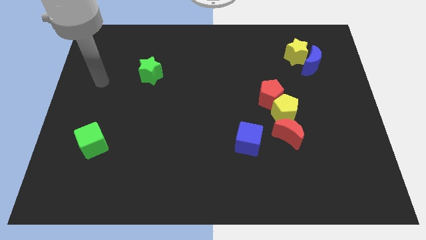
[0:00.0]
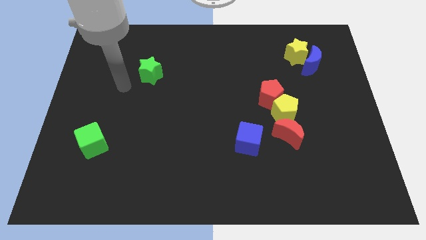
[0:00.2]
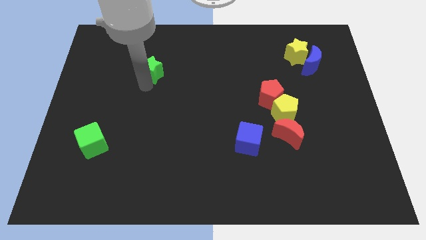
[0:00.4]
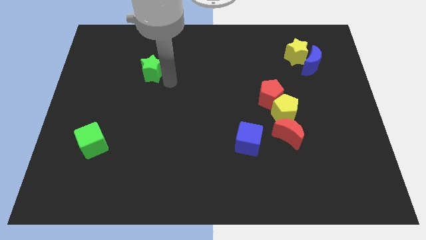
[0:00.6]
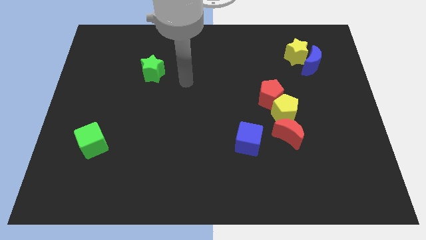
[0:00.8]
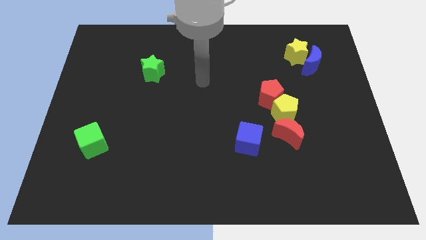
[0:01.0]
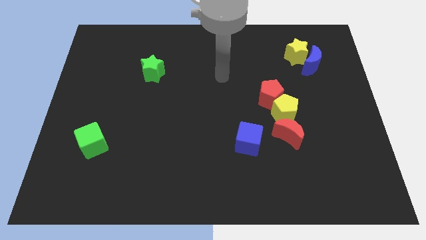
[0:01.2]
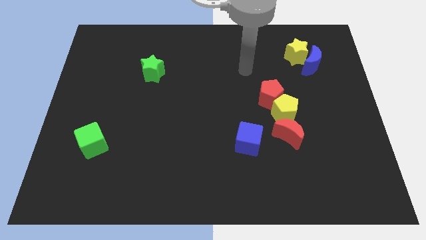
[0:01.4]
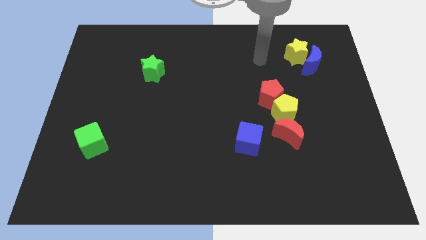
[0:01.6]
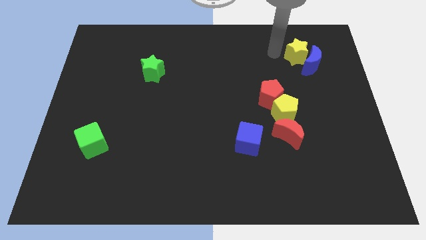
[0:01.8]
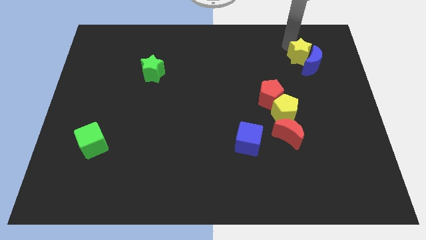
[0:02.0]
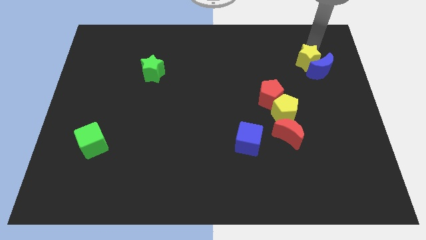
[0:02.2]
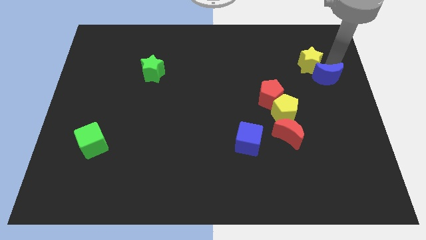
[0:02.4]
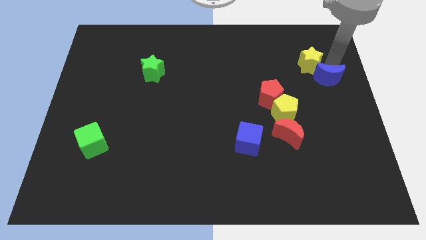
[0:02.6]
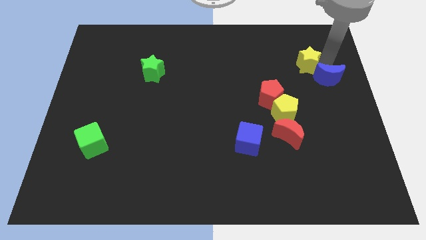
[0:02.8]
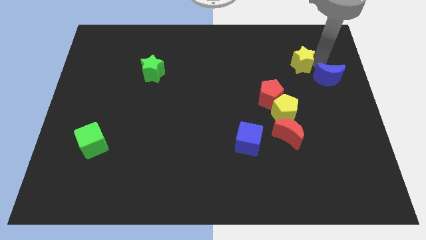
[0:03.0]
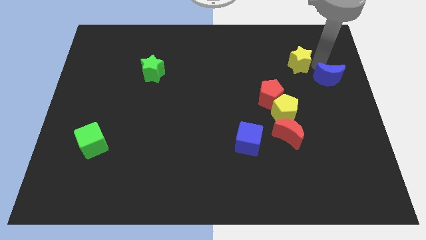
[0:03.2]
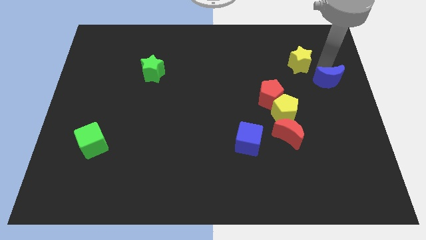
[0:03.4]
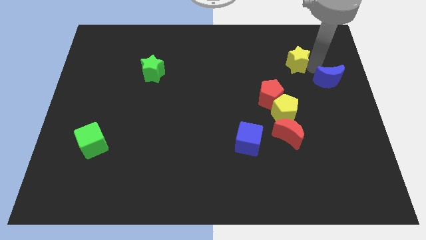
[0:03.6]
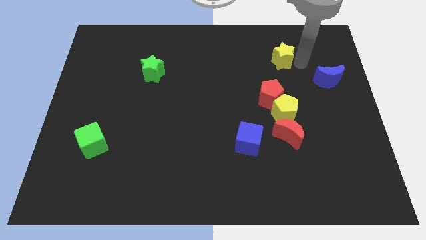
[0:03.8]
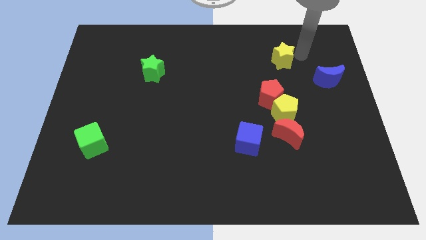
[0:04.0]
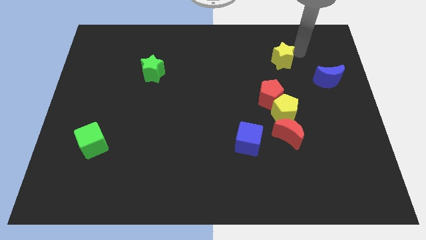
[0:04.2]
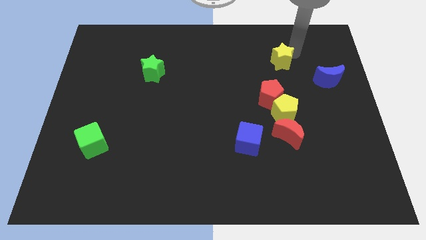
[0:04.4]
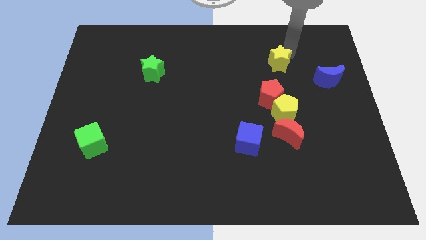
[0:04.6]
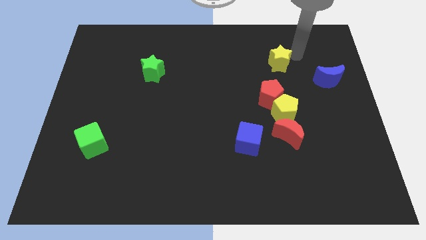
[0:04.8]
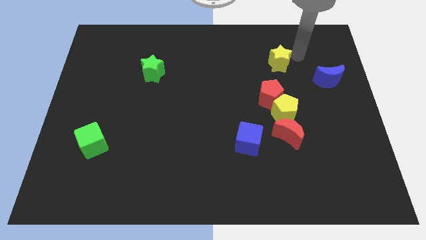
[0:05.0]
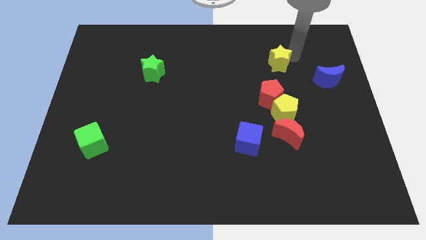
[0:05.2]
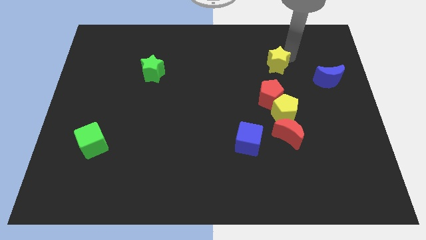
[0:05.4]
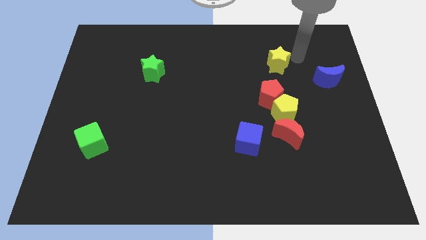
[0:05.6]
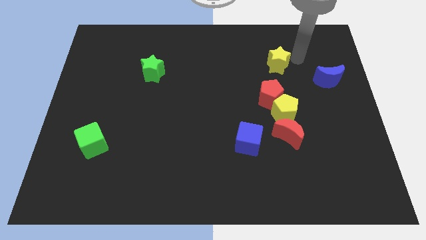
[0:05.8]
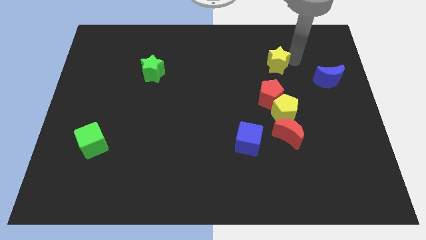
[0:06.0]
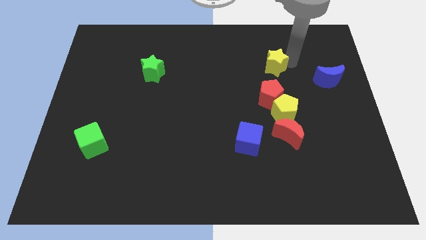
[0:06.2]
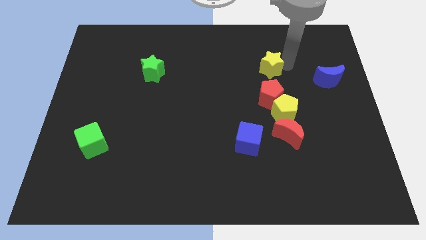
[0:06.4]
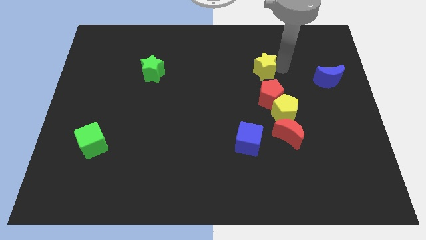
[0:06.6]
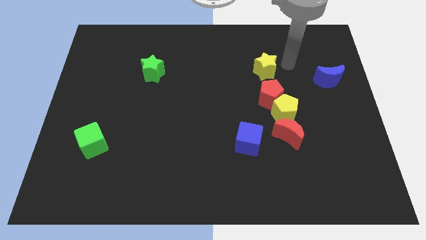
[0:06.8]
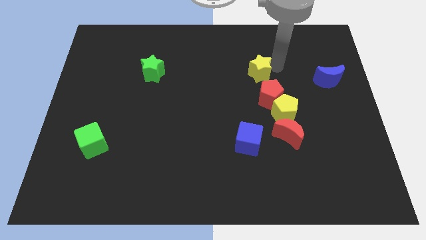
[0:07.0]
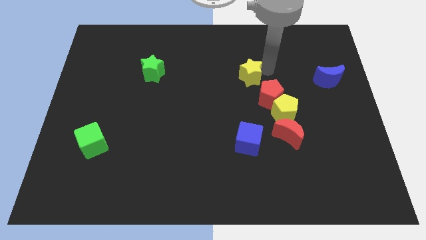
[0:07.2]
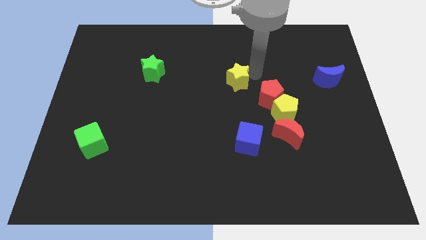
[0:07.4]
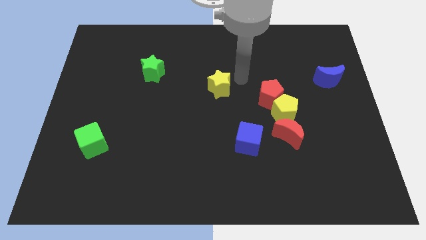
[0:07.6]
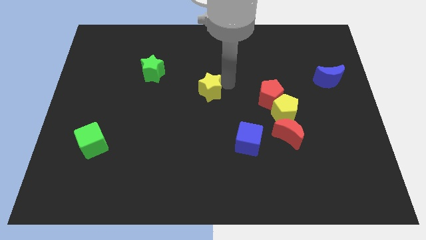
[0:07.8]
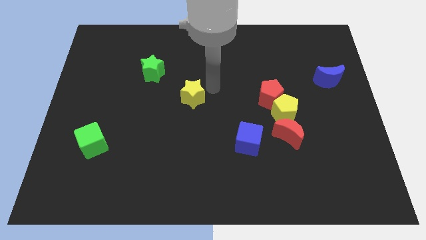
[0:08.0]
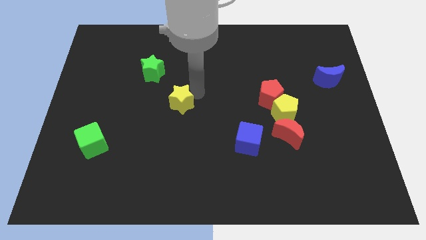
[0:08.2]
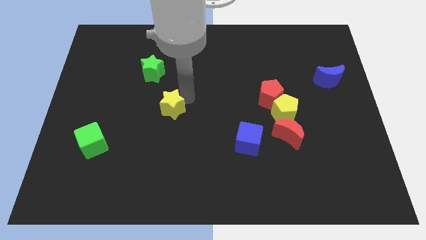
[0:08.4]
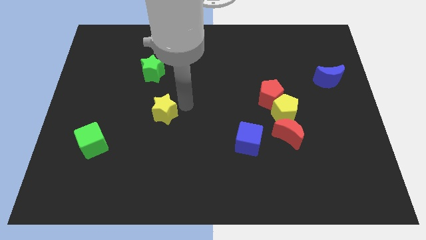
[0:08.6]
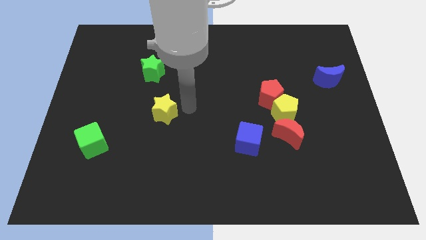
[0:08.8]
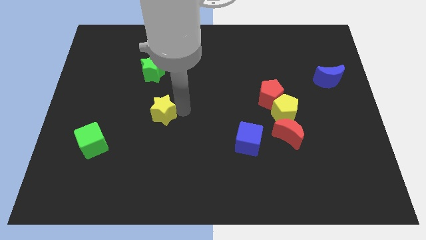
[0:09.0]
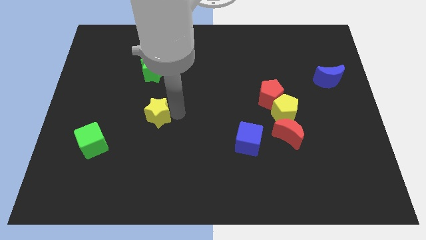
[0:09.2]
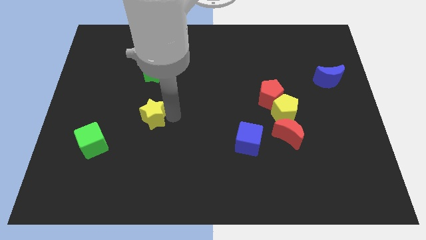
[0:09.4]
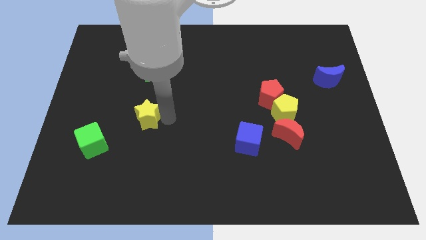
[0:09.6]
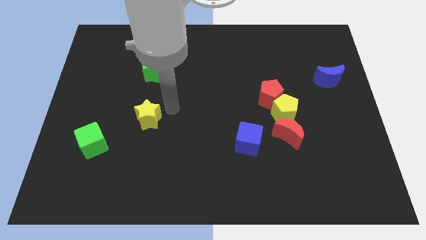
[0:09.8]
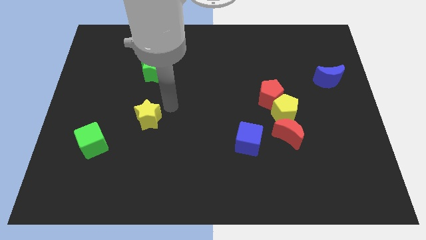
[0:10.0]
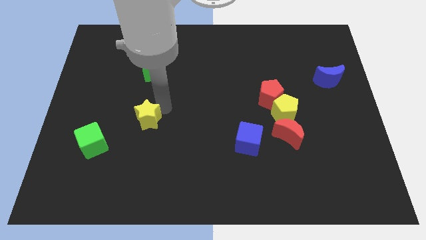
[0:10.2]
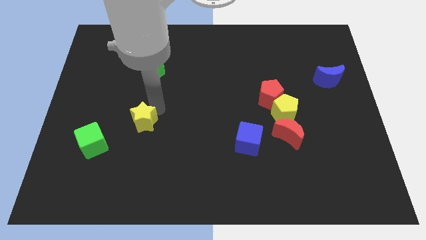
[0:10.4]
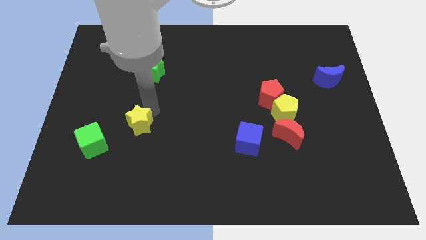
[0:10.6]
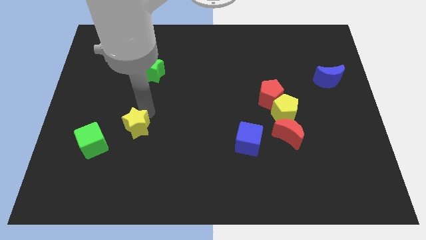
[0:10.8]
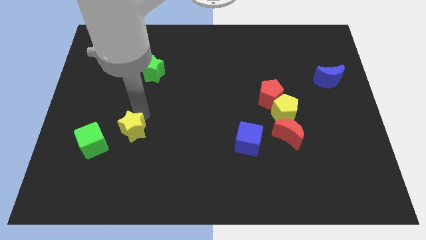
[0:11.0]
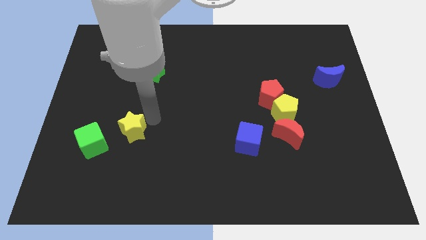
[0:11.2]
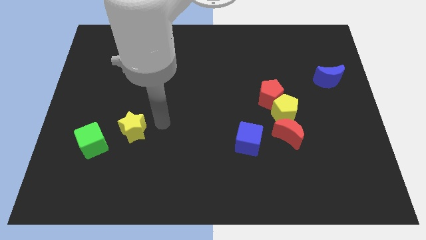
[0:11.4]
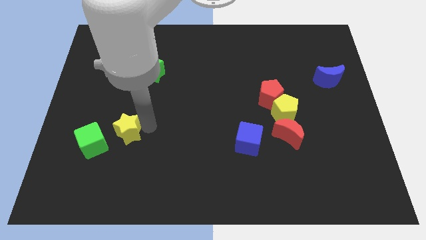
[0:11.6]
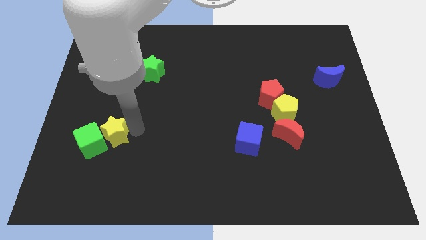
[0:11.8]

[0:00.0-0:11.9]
put the yellow star to the green cube

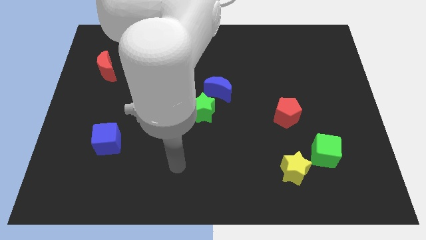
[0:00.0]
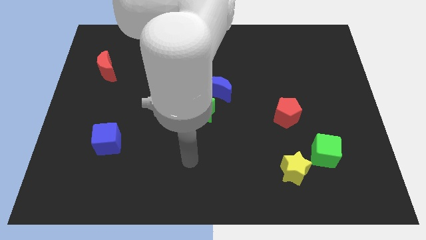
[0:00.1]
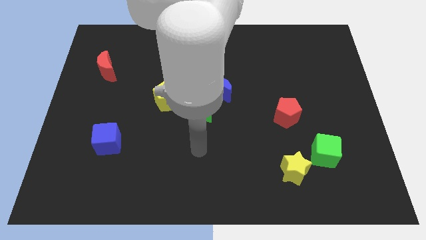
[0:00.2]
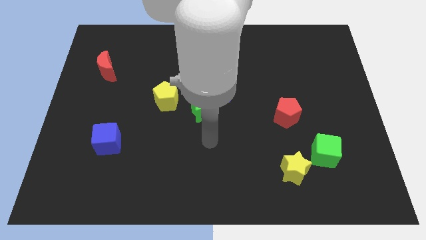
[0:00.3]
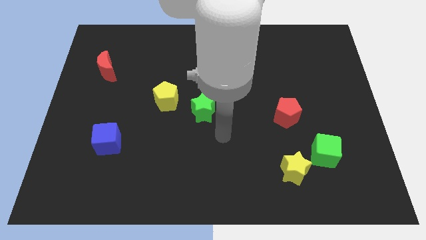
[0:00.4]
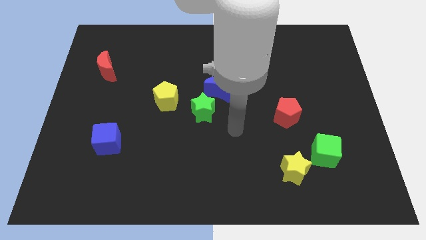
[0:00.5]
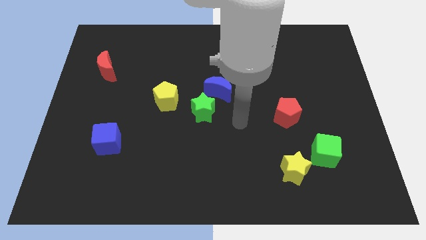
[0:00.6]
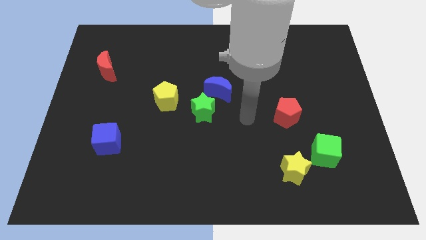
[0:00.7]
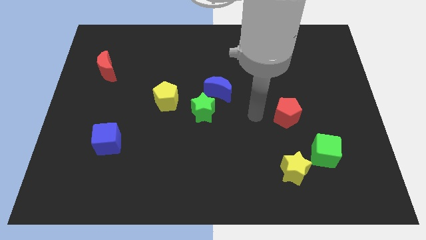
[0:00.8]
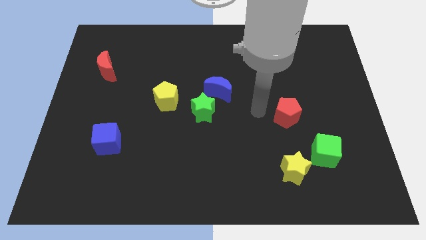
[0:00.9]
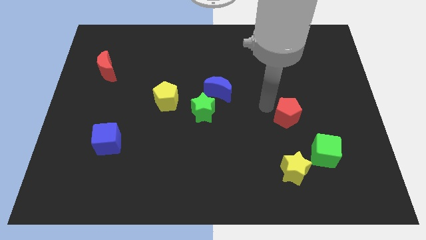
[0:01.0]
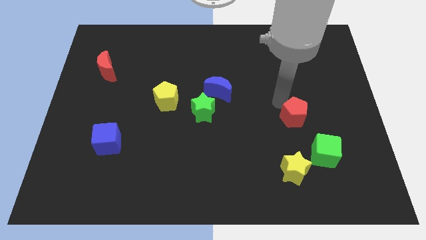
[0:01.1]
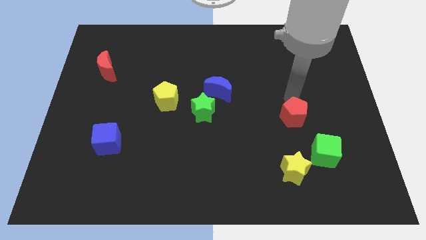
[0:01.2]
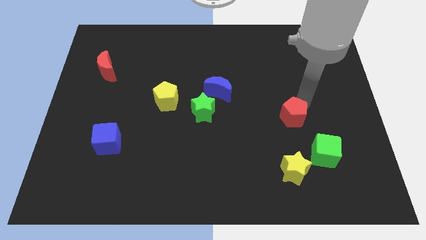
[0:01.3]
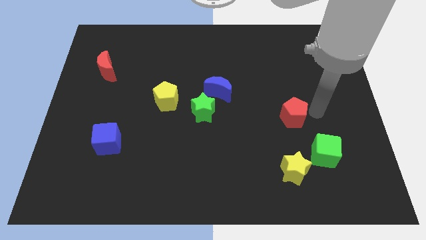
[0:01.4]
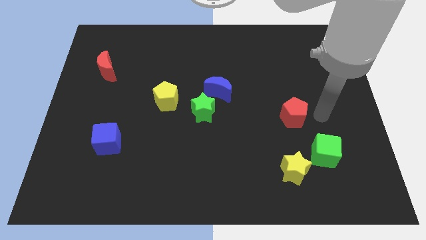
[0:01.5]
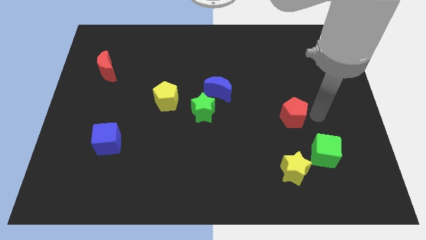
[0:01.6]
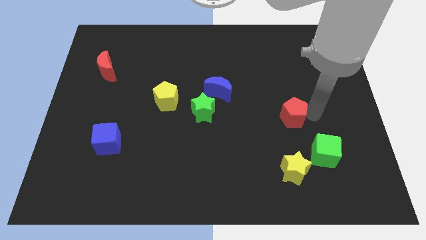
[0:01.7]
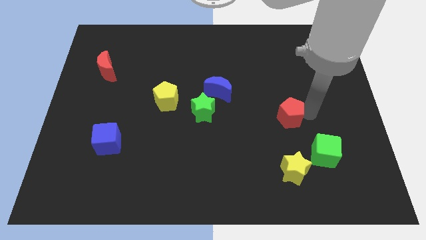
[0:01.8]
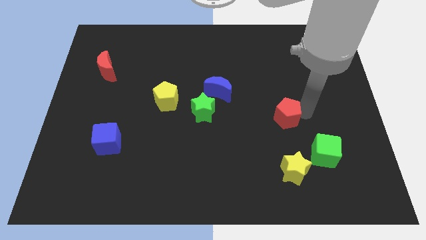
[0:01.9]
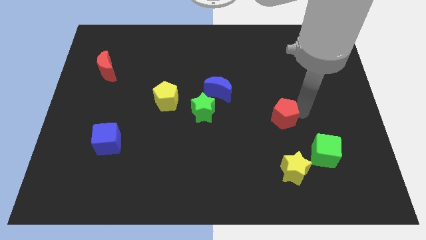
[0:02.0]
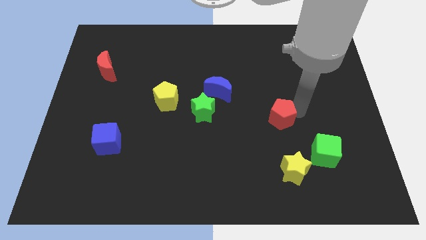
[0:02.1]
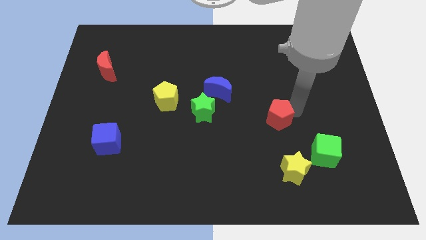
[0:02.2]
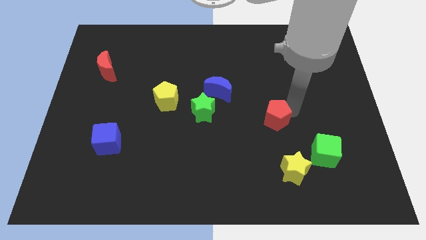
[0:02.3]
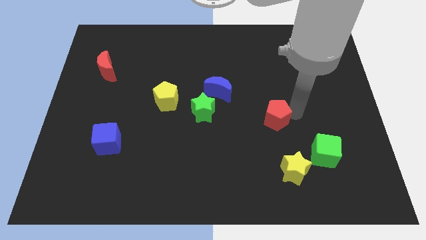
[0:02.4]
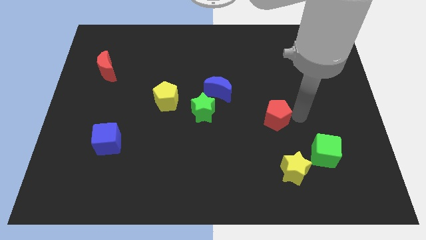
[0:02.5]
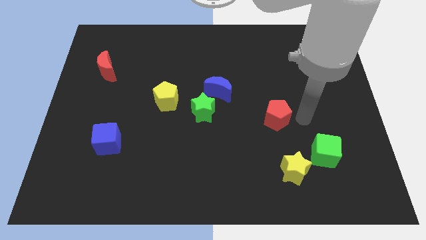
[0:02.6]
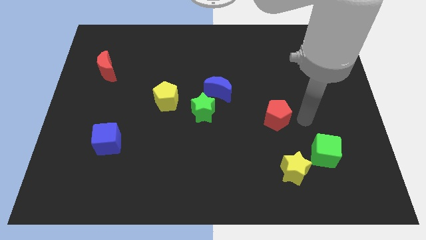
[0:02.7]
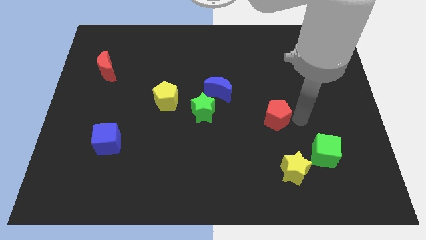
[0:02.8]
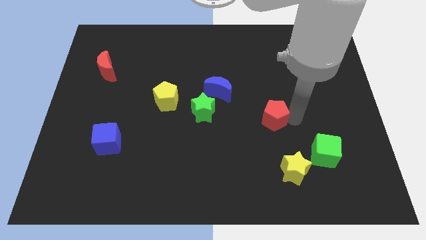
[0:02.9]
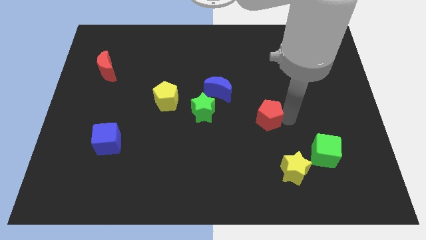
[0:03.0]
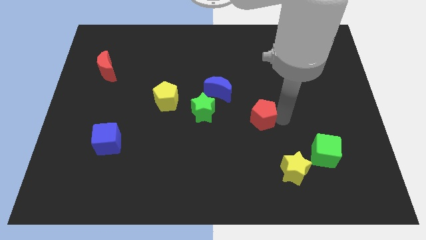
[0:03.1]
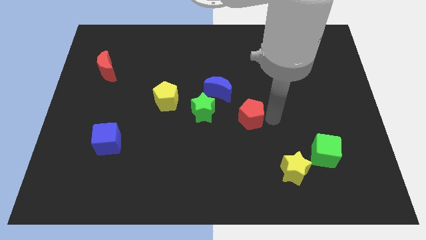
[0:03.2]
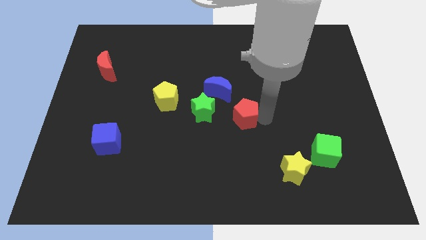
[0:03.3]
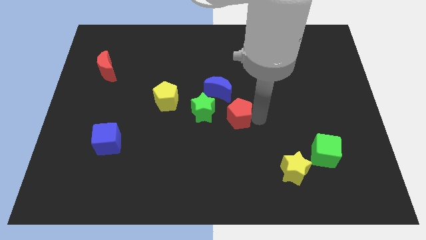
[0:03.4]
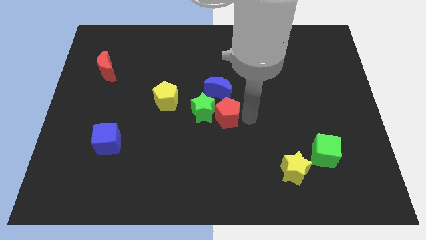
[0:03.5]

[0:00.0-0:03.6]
put the red pentagon next to the green star
